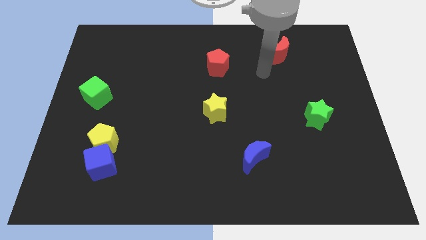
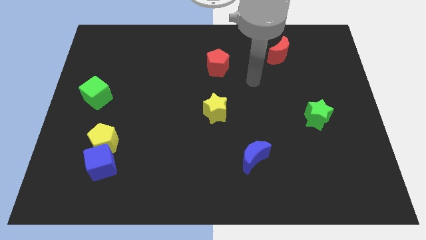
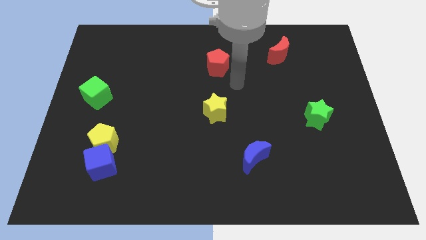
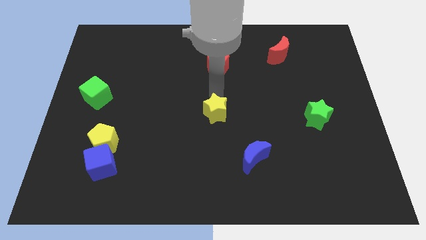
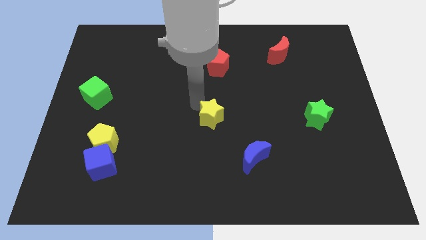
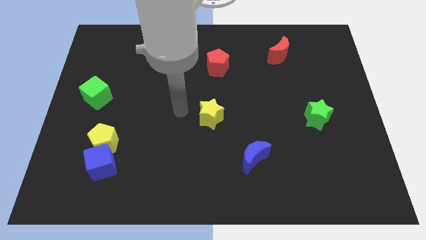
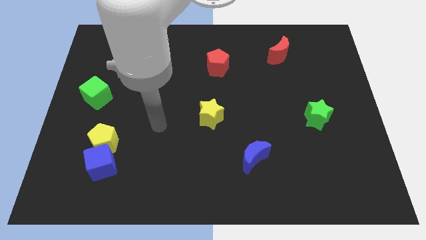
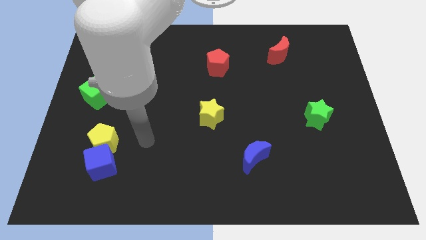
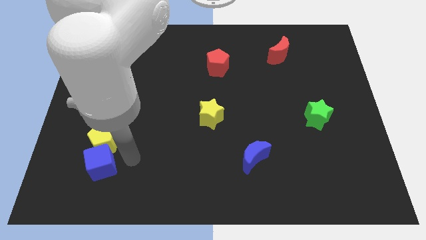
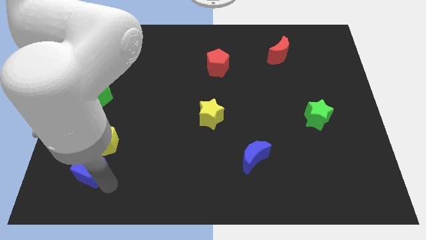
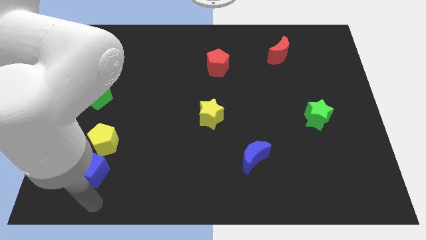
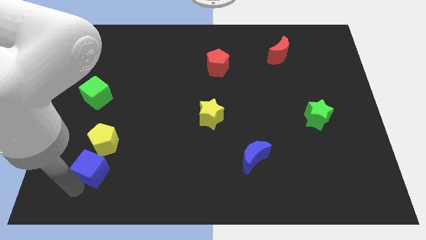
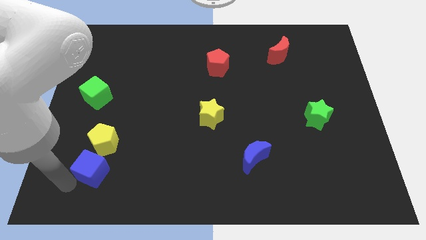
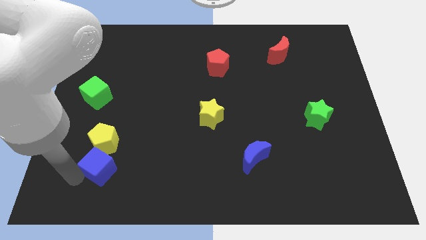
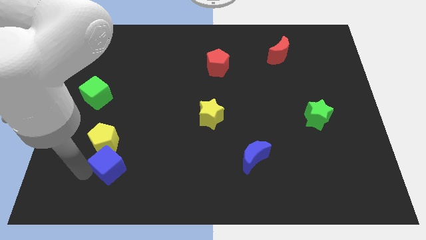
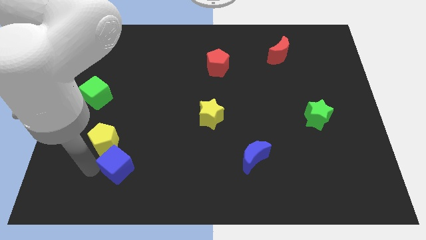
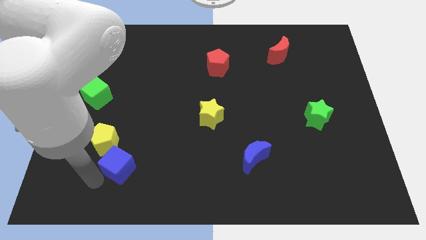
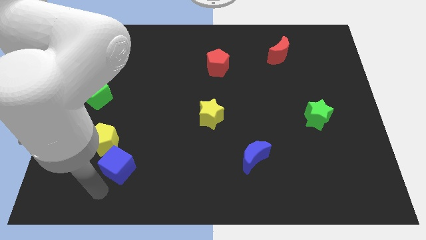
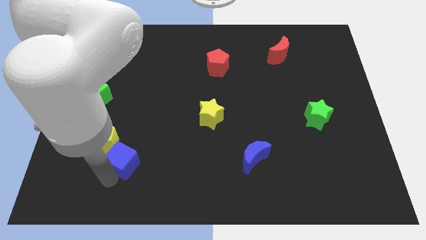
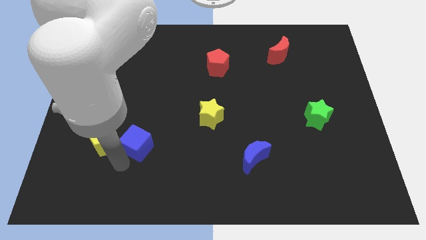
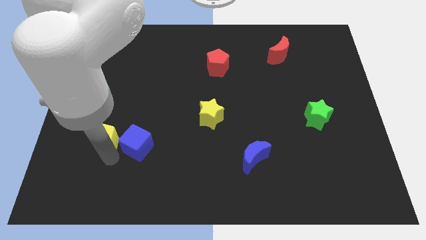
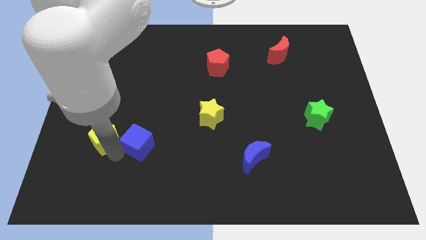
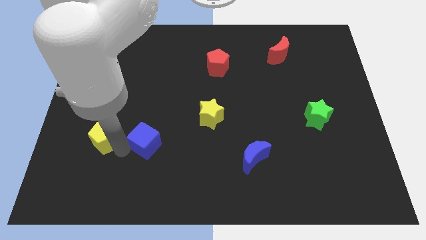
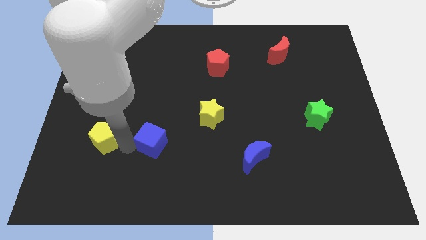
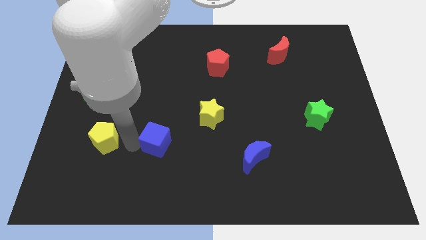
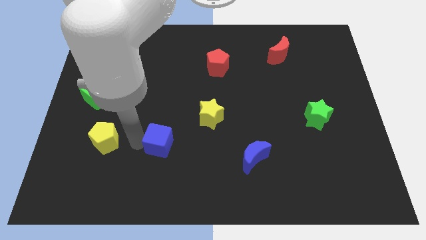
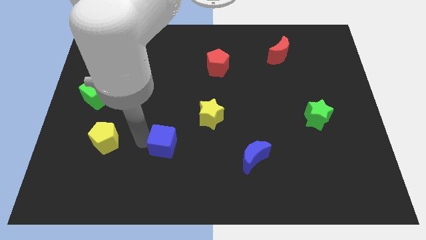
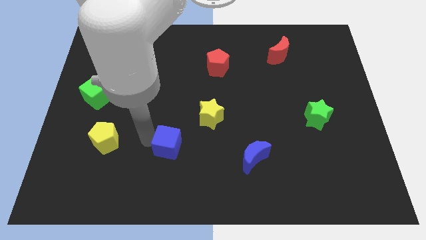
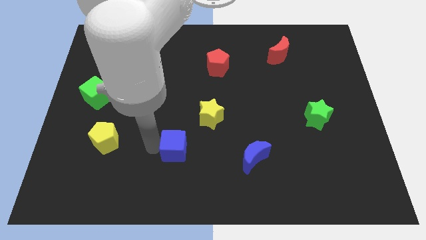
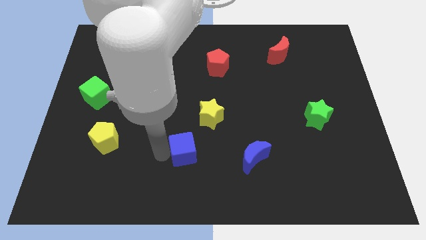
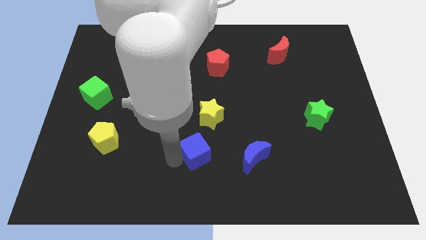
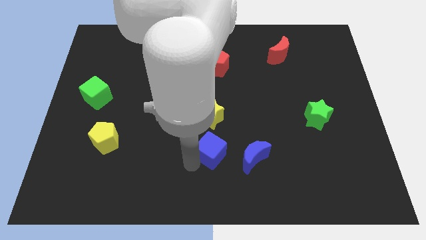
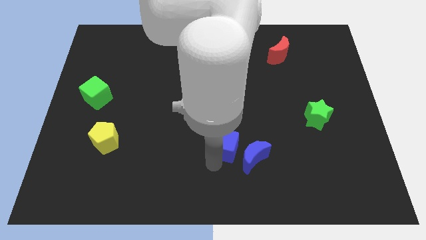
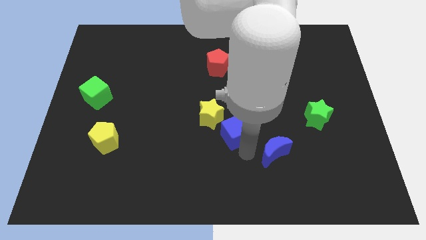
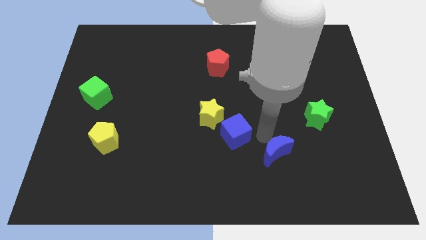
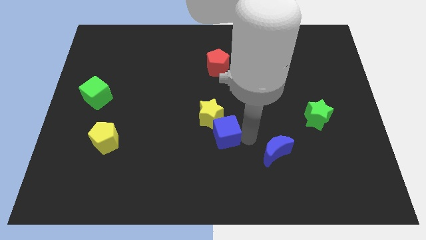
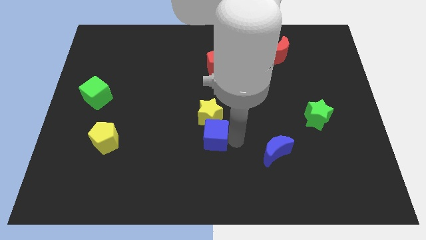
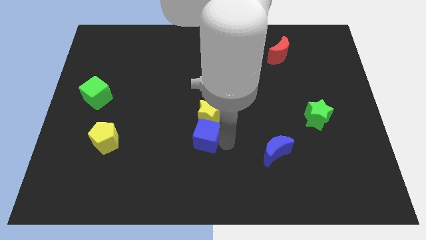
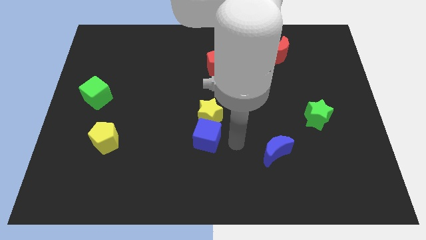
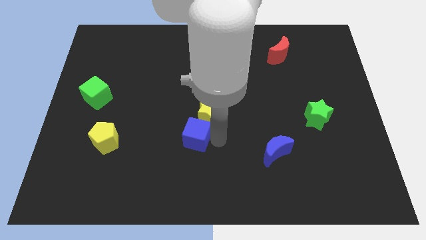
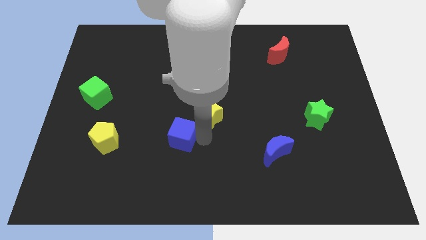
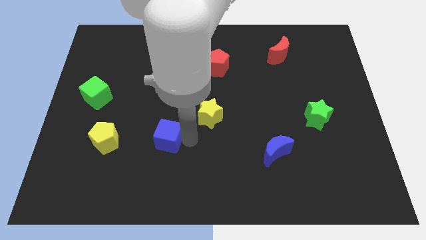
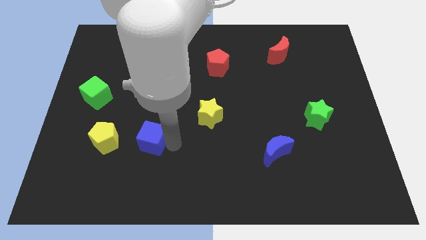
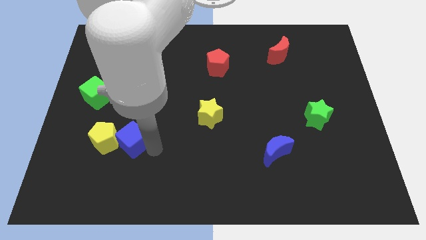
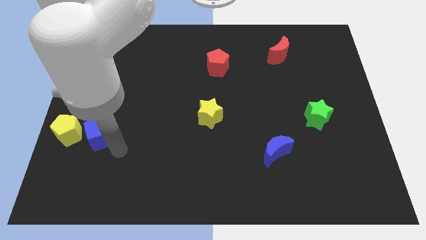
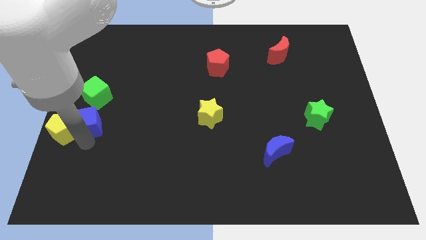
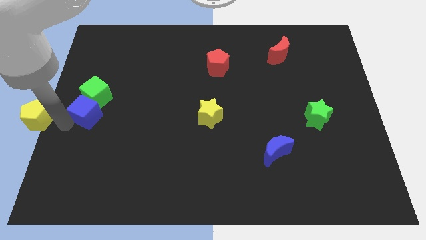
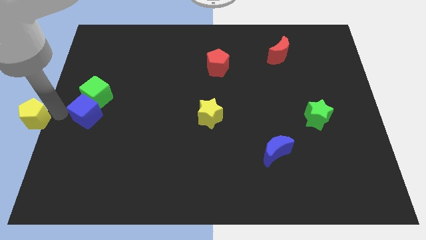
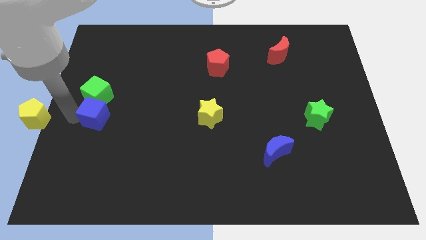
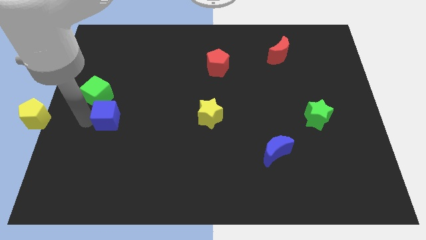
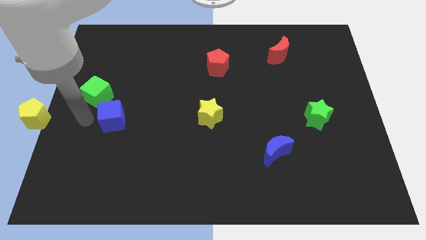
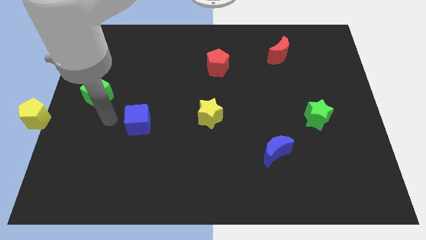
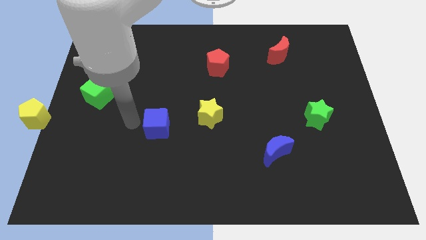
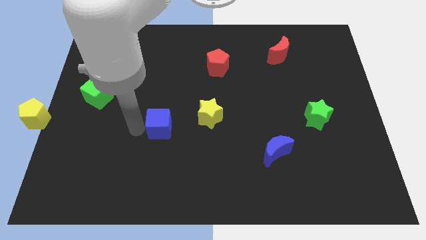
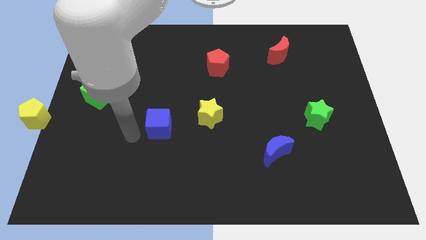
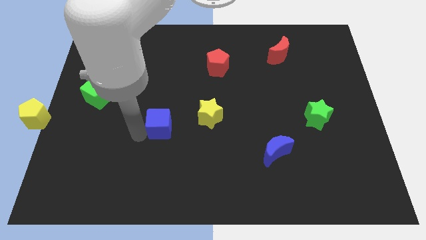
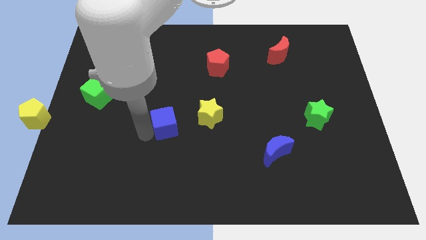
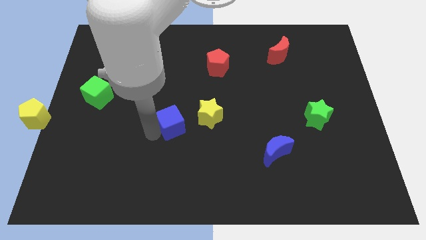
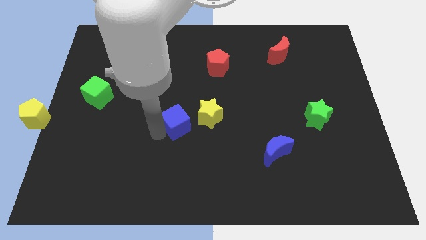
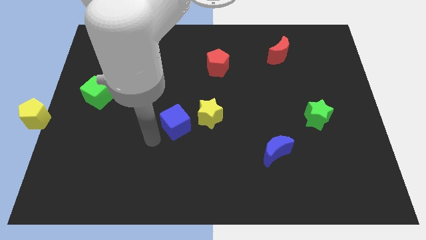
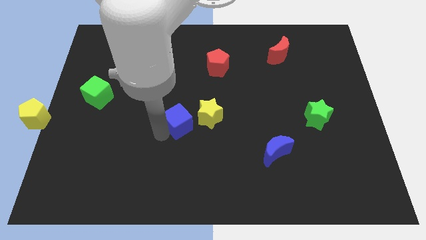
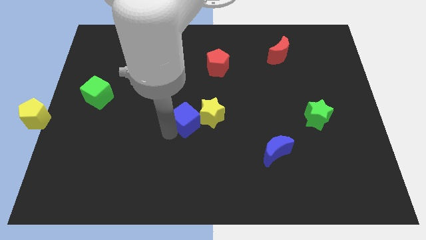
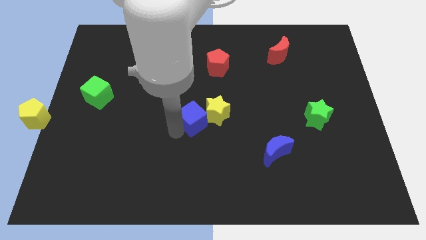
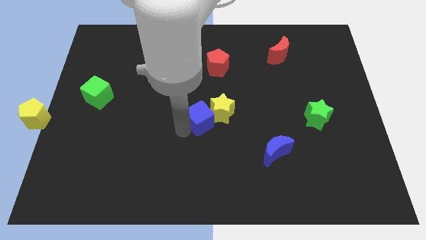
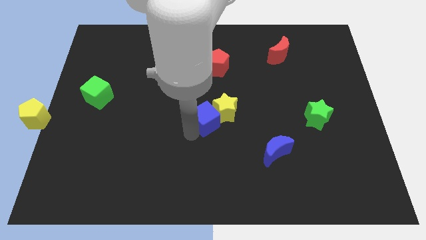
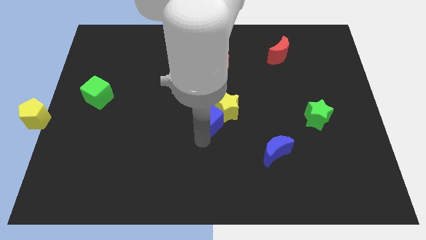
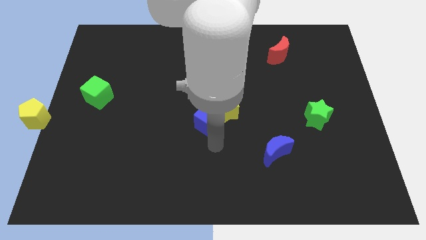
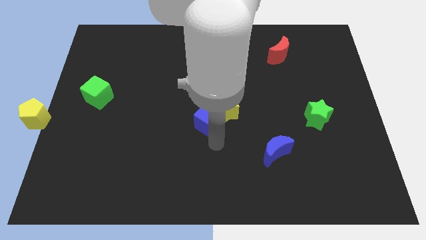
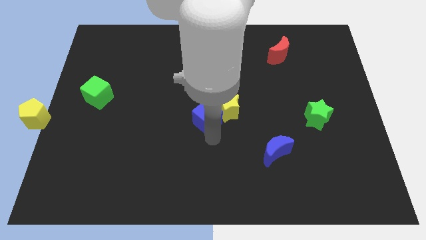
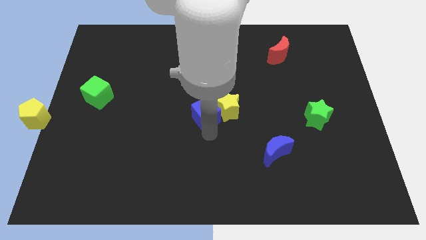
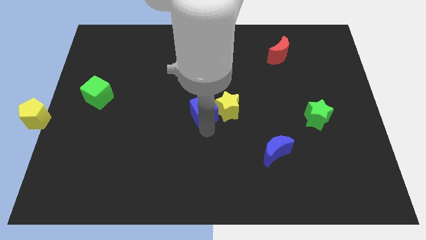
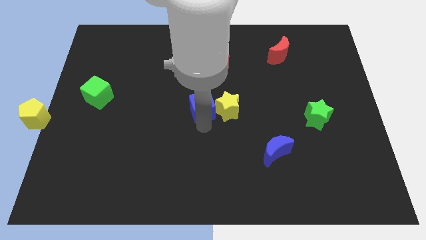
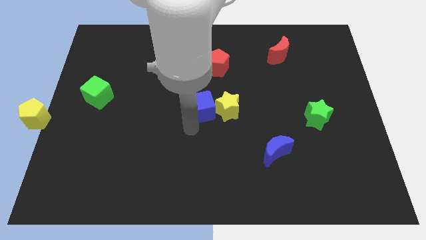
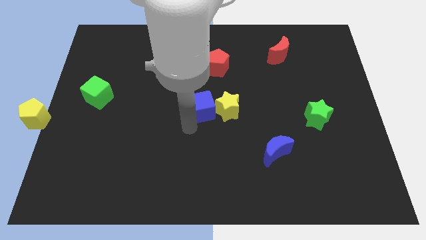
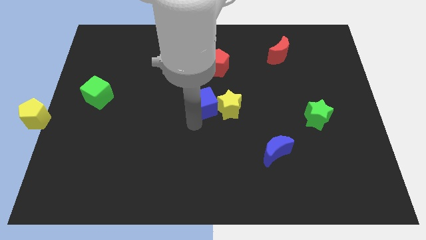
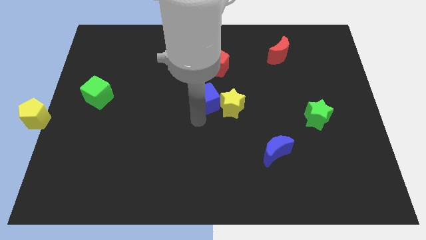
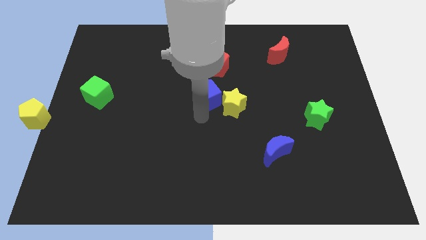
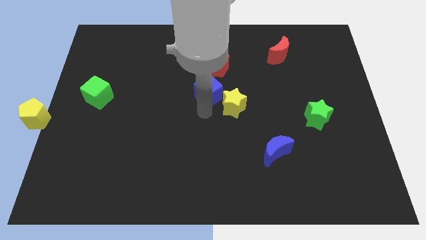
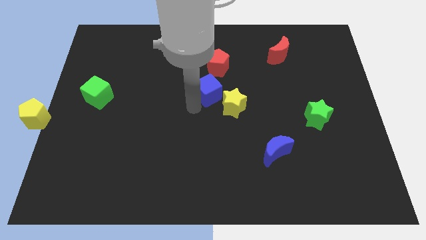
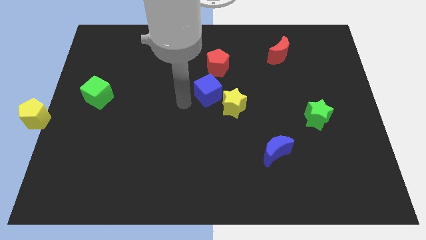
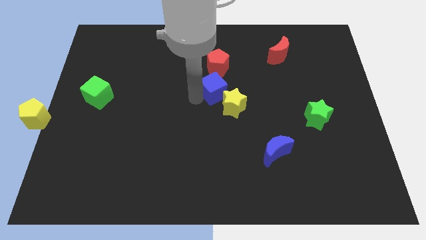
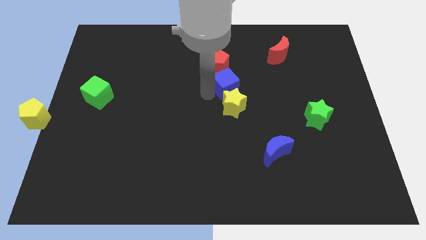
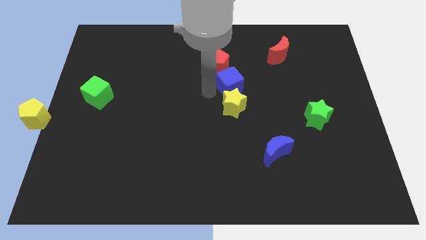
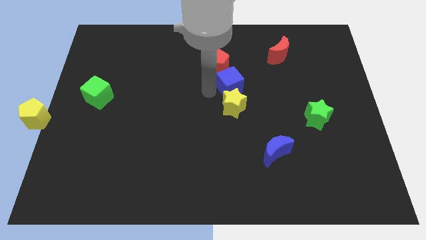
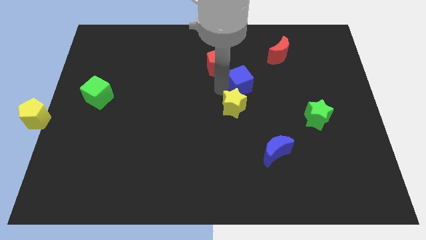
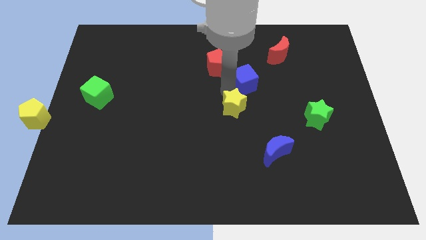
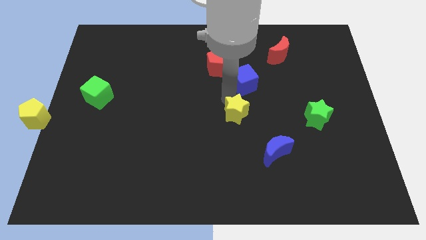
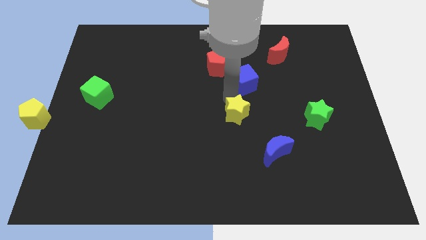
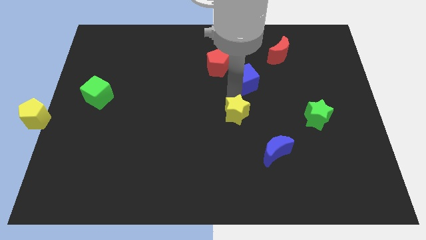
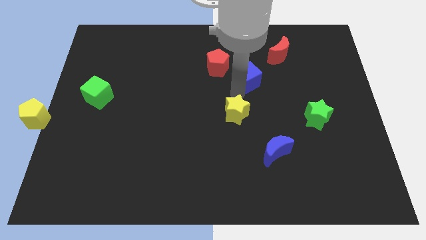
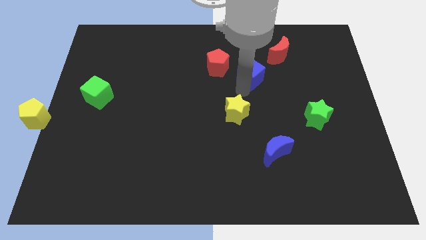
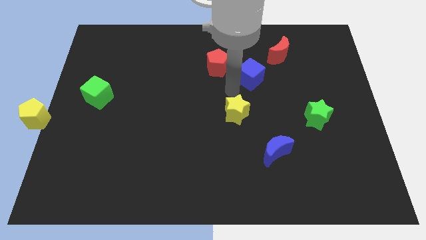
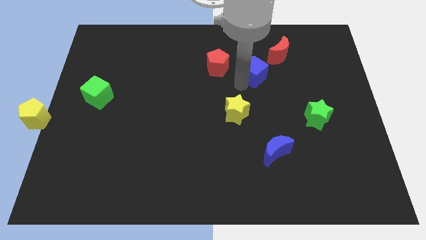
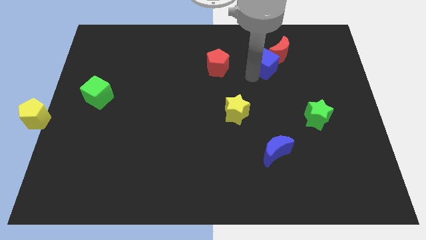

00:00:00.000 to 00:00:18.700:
move the blue cube close to the red moon
